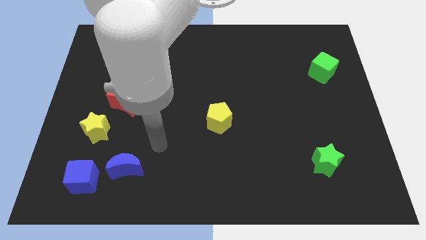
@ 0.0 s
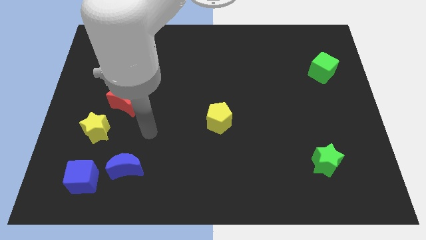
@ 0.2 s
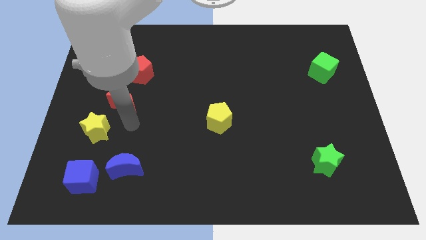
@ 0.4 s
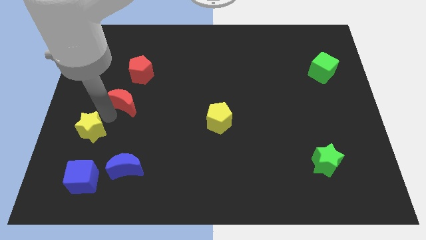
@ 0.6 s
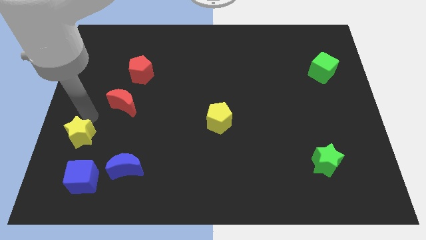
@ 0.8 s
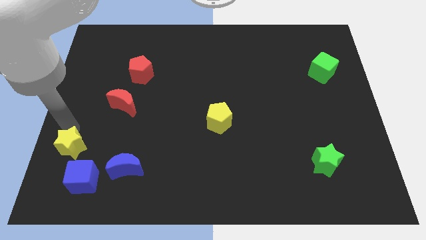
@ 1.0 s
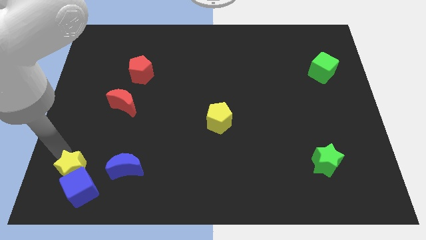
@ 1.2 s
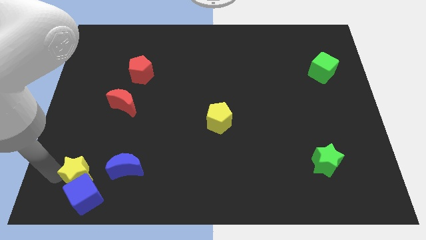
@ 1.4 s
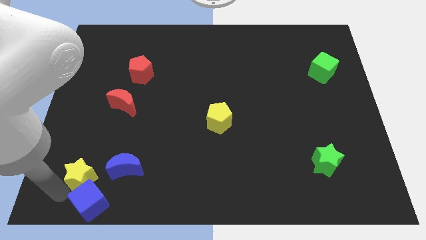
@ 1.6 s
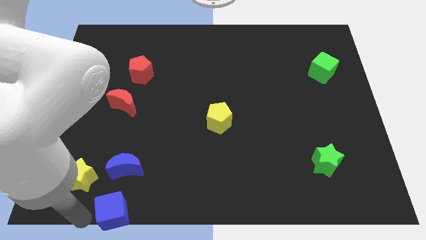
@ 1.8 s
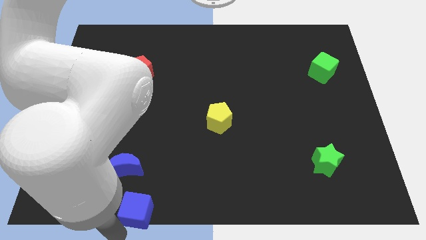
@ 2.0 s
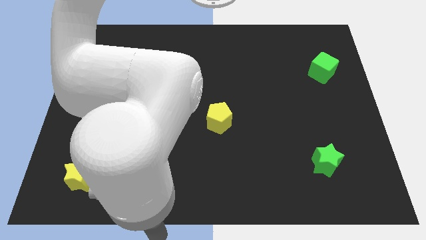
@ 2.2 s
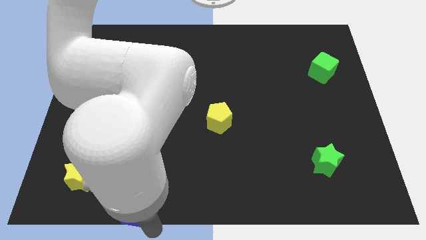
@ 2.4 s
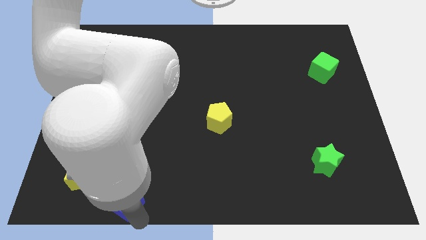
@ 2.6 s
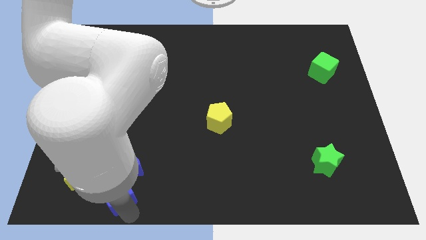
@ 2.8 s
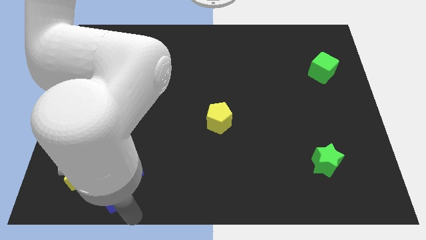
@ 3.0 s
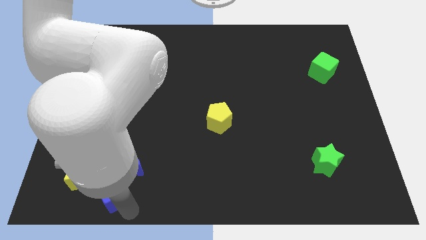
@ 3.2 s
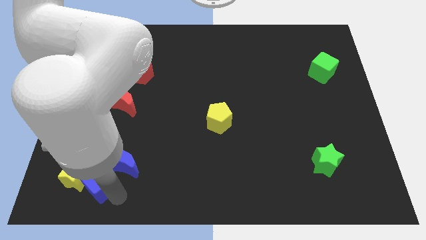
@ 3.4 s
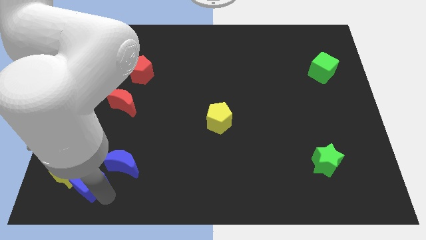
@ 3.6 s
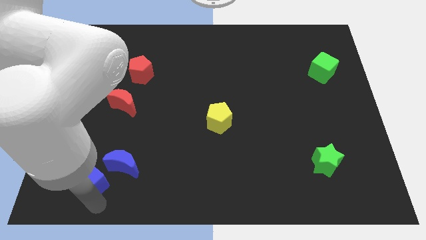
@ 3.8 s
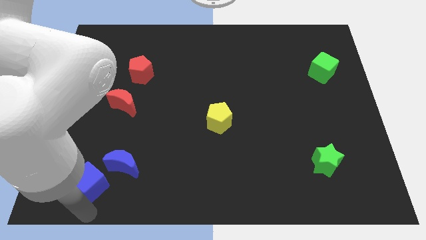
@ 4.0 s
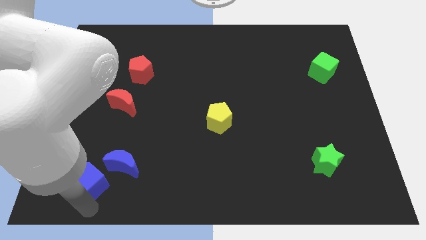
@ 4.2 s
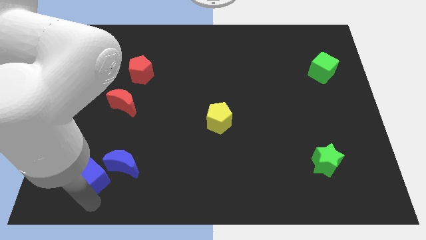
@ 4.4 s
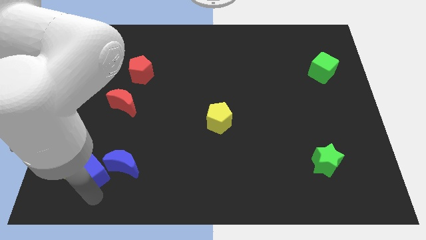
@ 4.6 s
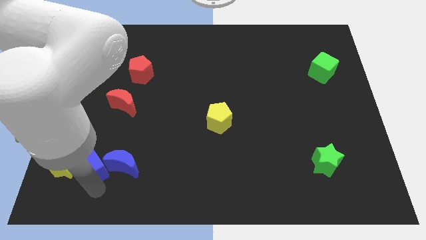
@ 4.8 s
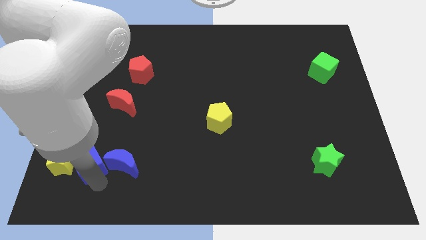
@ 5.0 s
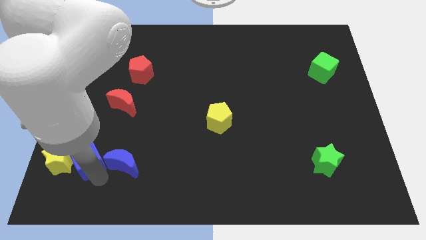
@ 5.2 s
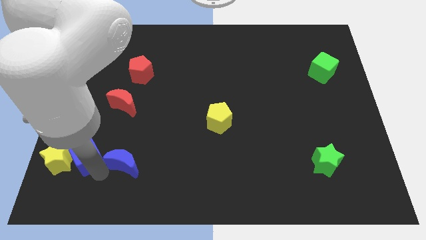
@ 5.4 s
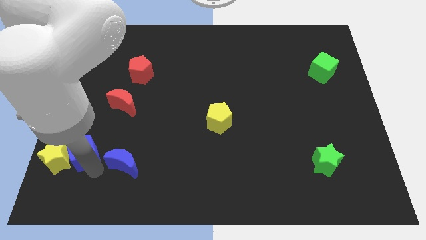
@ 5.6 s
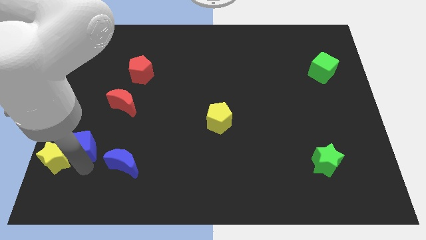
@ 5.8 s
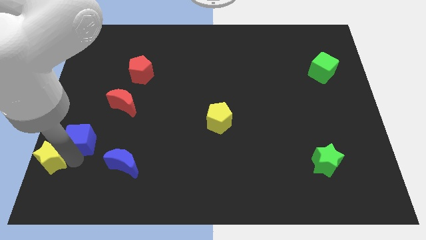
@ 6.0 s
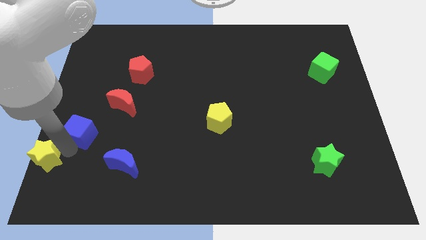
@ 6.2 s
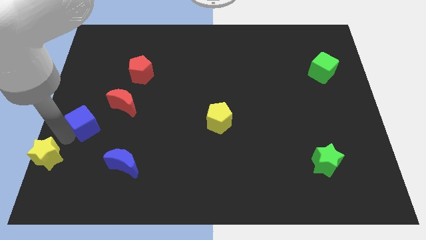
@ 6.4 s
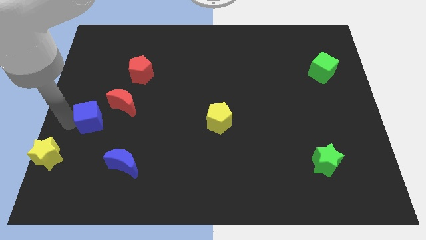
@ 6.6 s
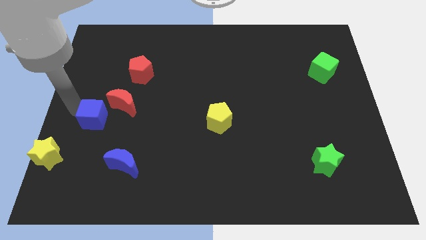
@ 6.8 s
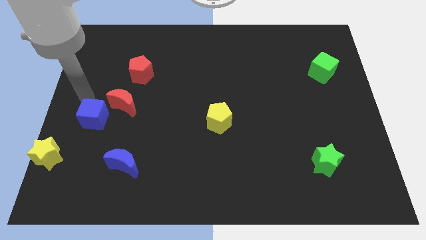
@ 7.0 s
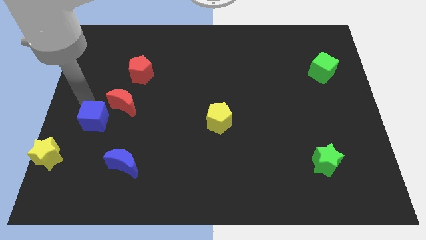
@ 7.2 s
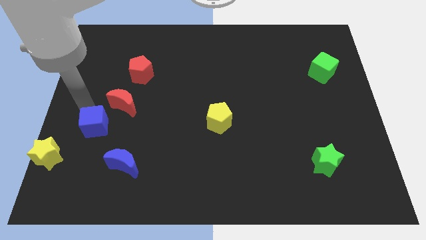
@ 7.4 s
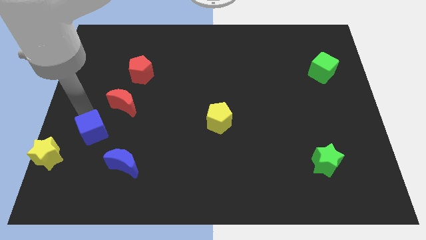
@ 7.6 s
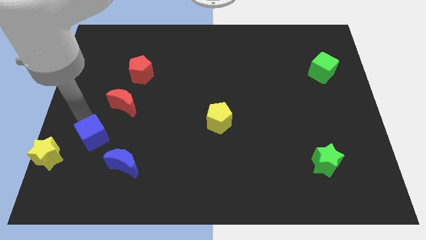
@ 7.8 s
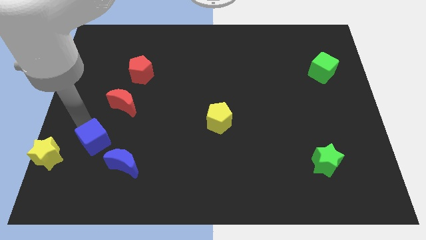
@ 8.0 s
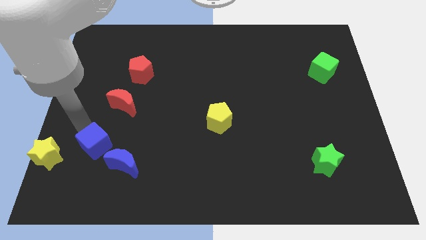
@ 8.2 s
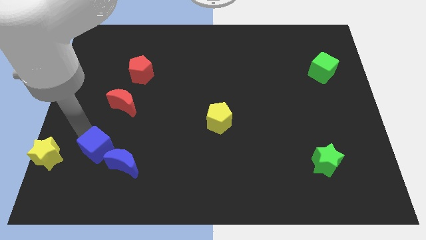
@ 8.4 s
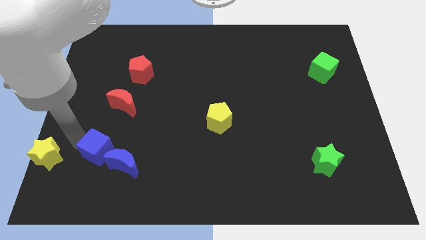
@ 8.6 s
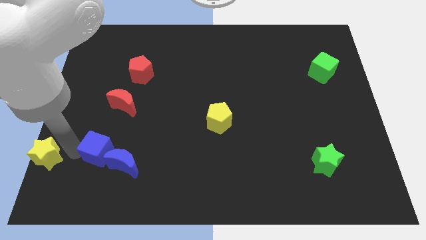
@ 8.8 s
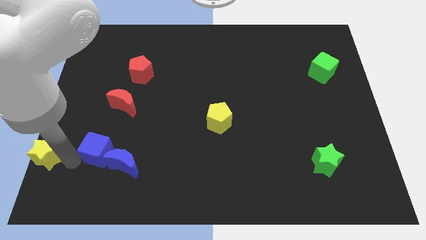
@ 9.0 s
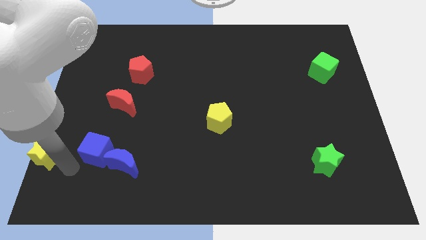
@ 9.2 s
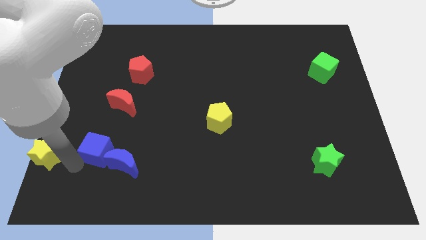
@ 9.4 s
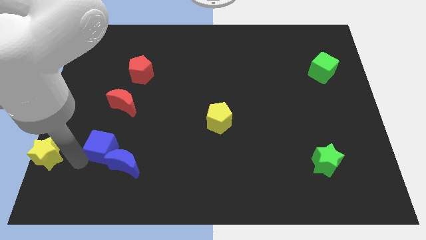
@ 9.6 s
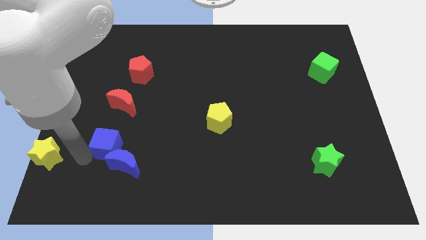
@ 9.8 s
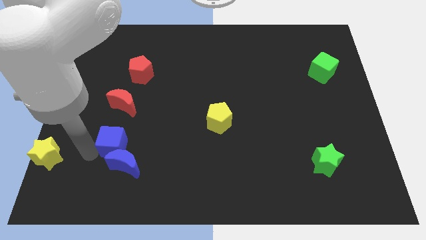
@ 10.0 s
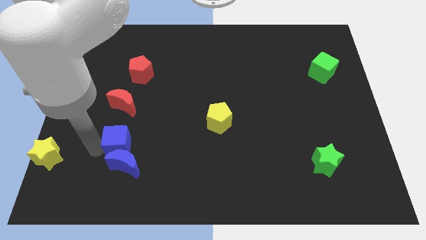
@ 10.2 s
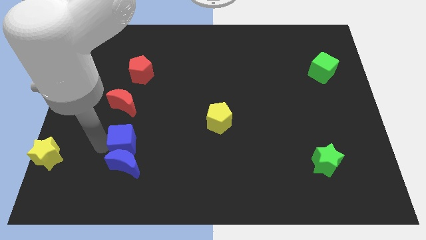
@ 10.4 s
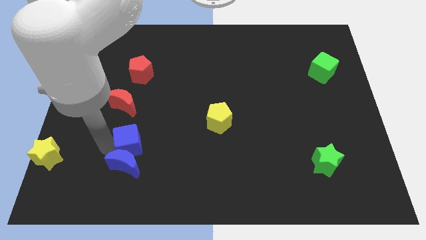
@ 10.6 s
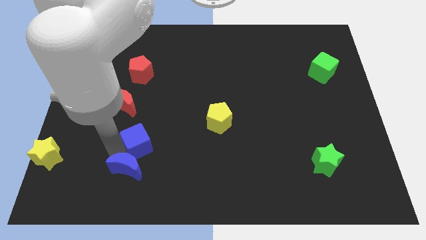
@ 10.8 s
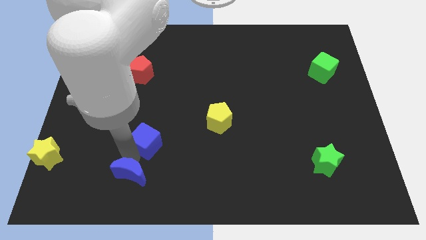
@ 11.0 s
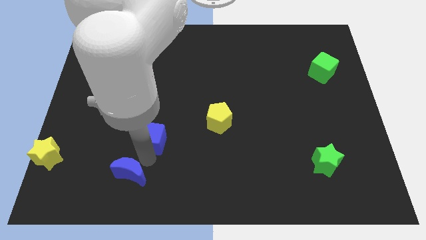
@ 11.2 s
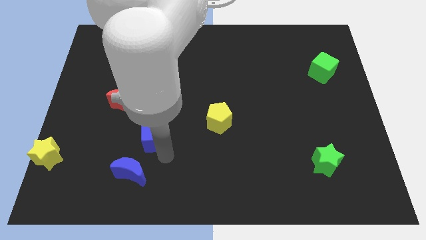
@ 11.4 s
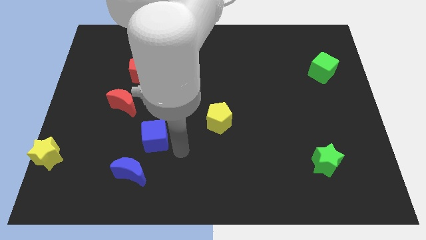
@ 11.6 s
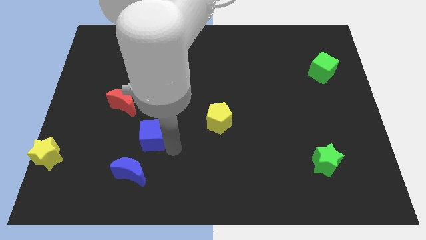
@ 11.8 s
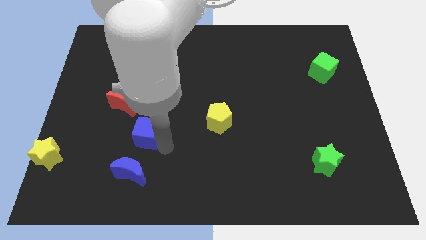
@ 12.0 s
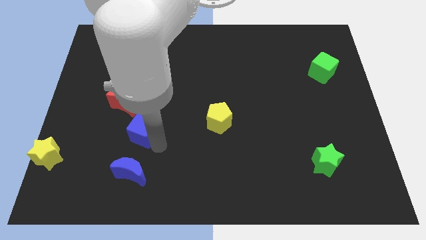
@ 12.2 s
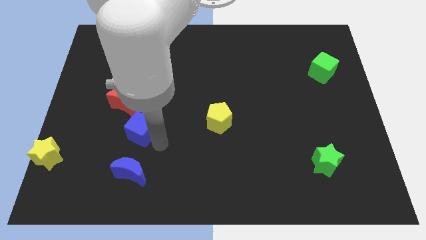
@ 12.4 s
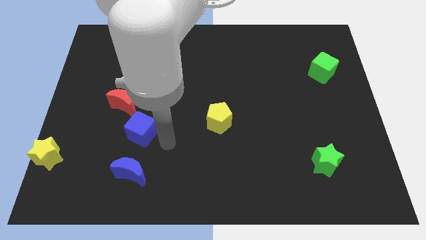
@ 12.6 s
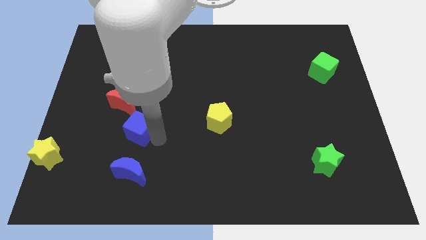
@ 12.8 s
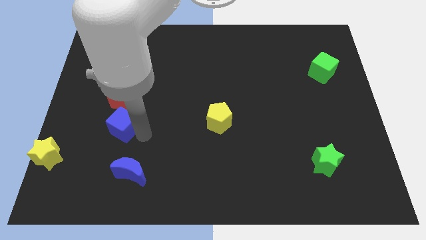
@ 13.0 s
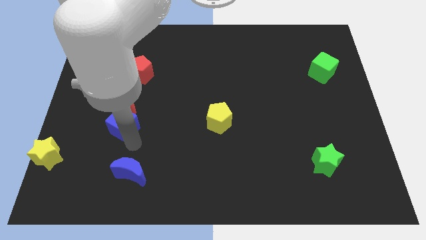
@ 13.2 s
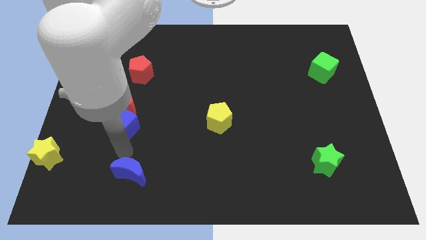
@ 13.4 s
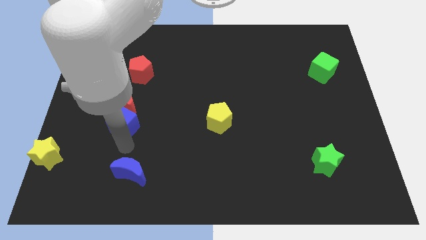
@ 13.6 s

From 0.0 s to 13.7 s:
move the blue cube close to the red moon
